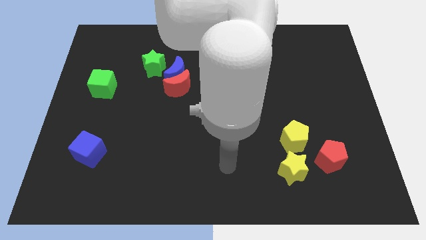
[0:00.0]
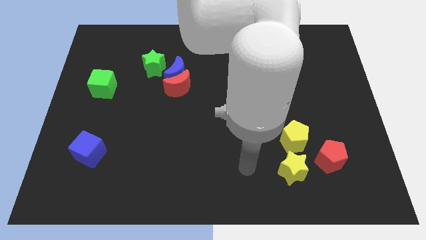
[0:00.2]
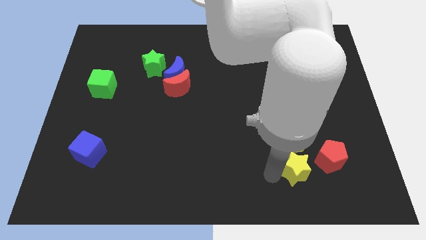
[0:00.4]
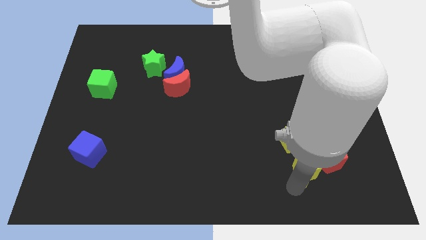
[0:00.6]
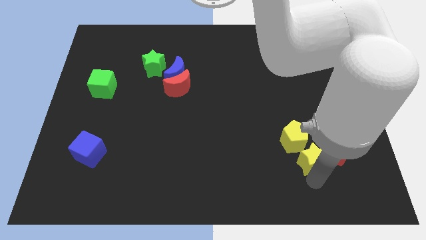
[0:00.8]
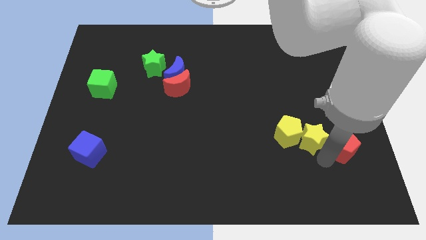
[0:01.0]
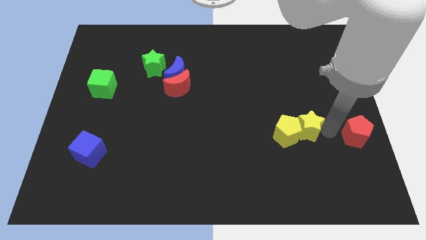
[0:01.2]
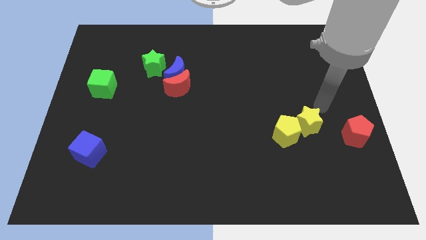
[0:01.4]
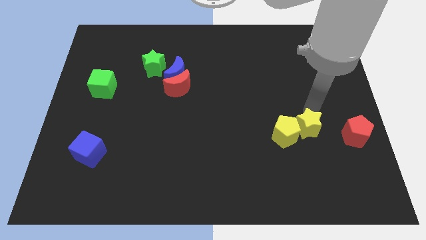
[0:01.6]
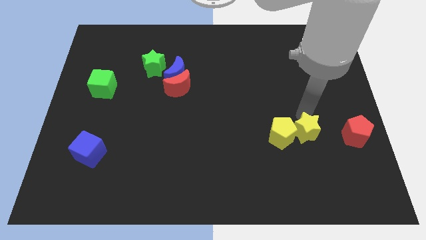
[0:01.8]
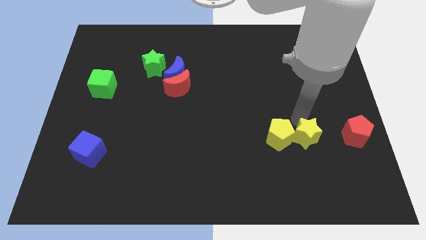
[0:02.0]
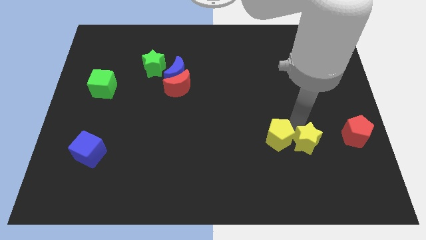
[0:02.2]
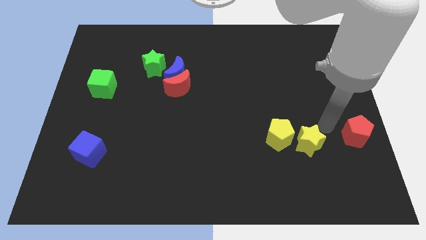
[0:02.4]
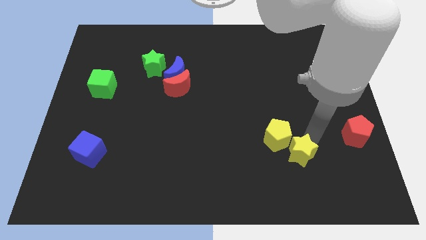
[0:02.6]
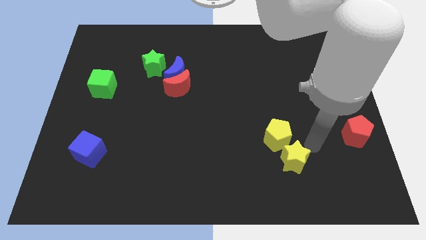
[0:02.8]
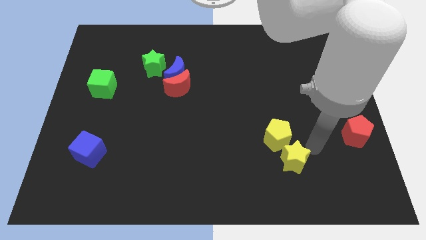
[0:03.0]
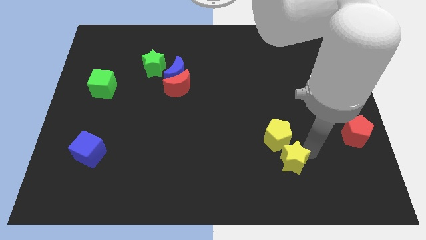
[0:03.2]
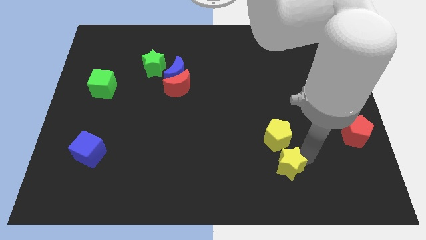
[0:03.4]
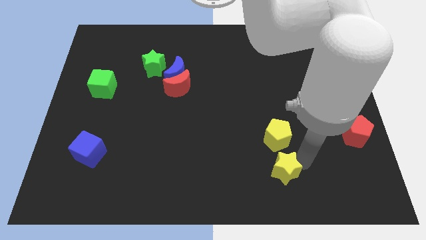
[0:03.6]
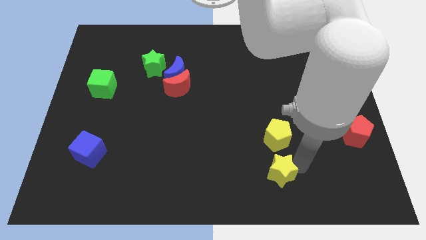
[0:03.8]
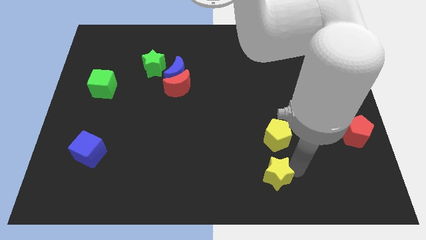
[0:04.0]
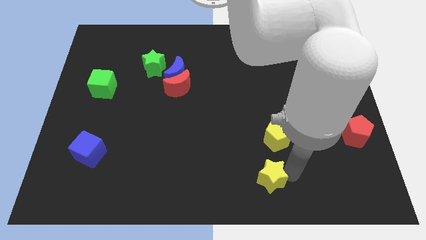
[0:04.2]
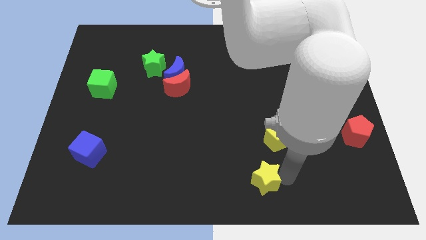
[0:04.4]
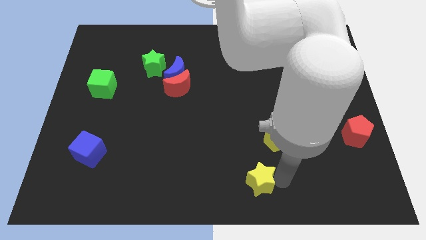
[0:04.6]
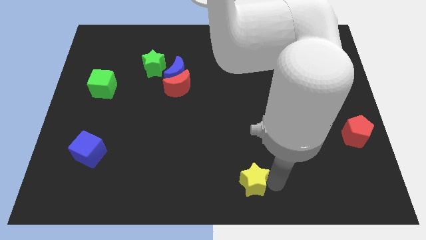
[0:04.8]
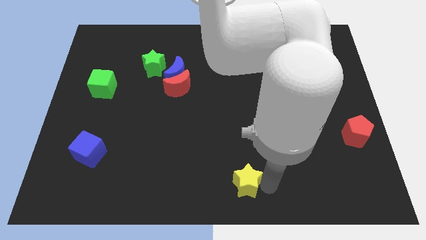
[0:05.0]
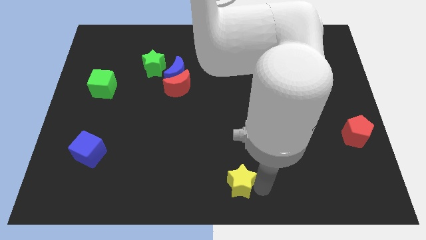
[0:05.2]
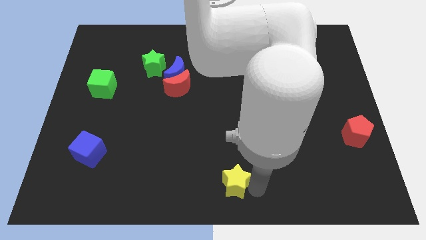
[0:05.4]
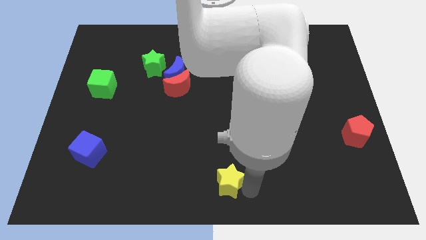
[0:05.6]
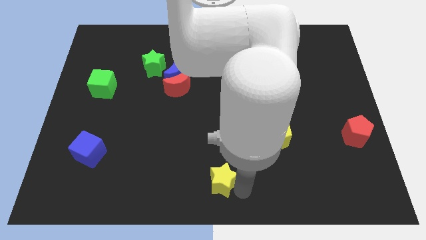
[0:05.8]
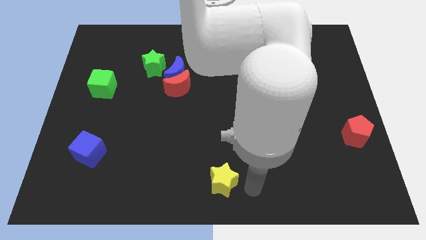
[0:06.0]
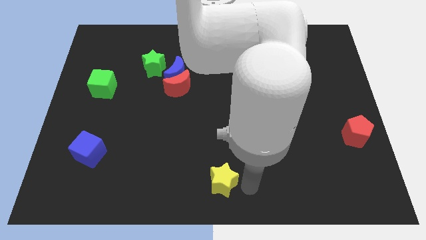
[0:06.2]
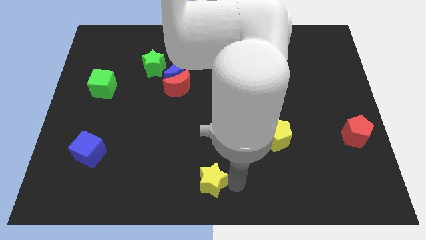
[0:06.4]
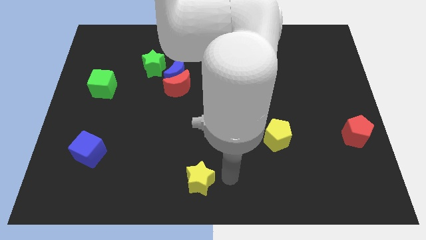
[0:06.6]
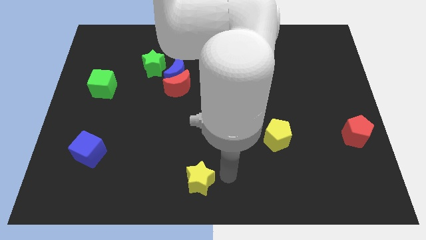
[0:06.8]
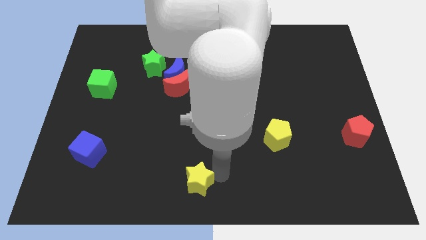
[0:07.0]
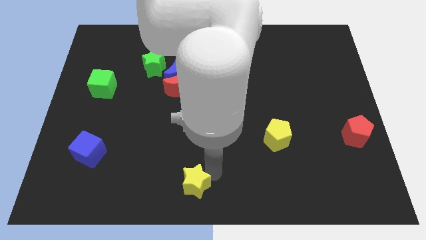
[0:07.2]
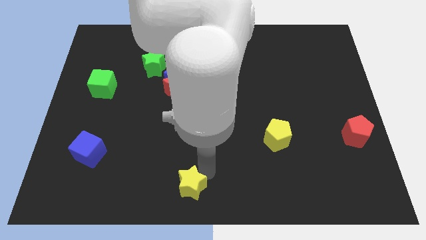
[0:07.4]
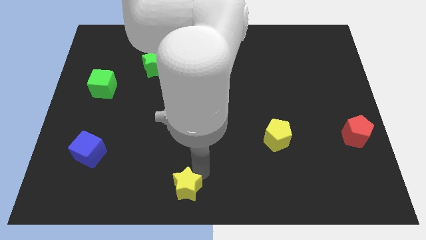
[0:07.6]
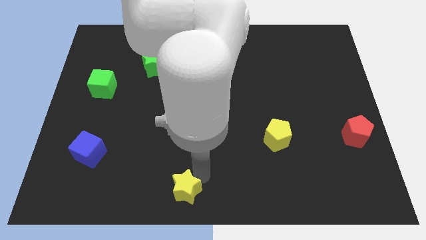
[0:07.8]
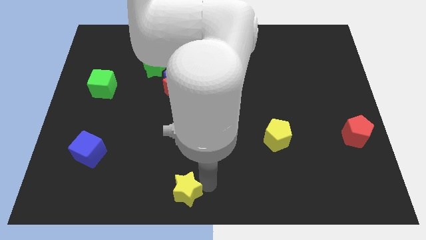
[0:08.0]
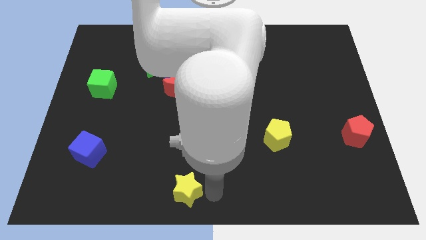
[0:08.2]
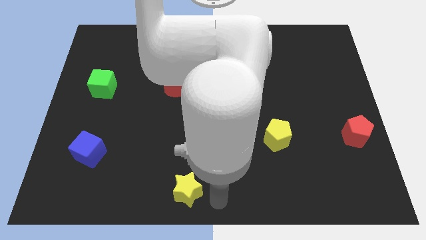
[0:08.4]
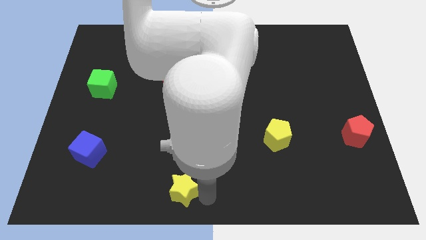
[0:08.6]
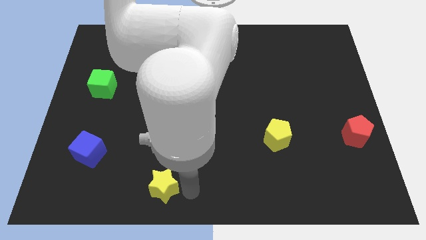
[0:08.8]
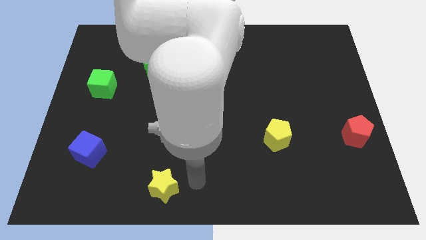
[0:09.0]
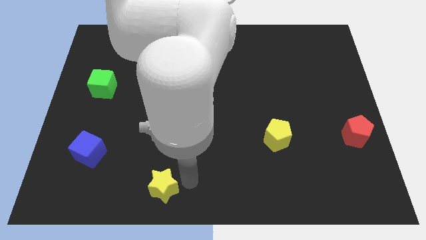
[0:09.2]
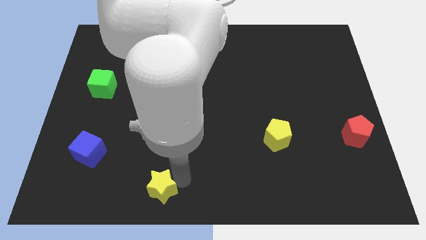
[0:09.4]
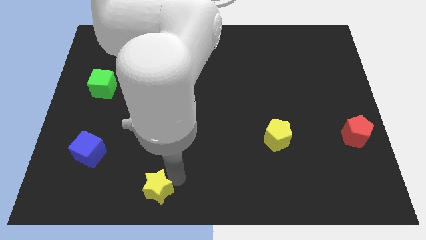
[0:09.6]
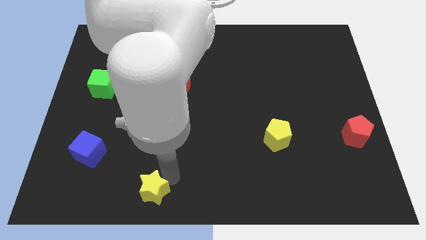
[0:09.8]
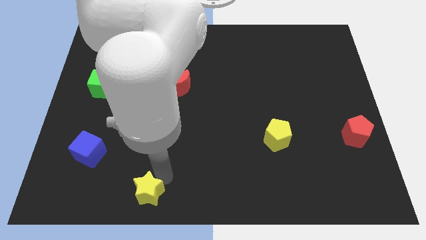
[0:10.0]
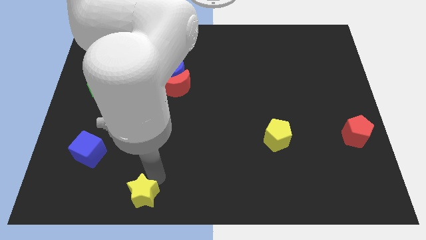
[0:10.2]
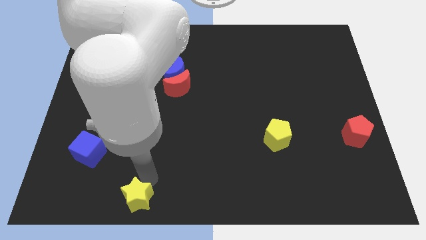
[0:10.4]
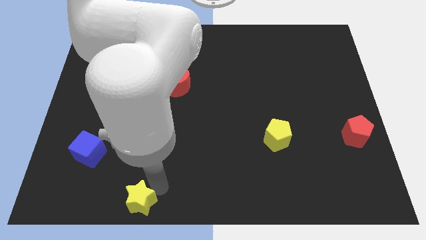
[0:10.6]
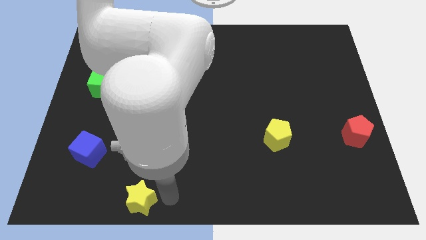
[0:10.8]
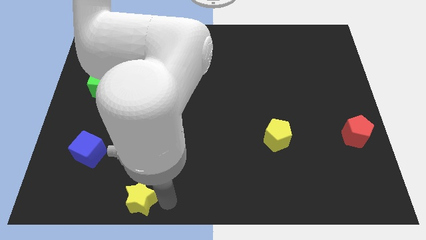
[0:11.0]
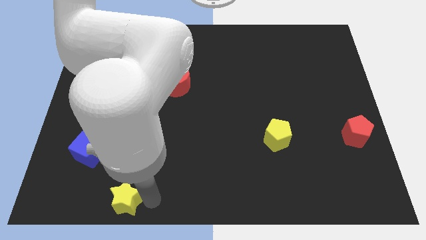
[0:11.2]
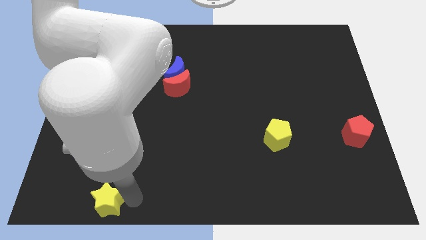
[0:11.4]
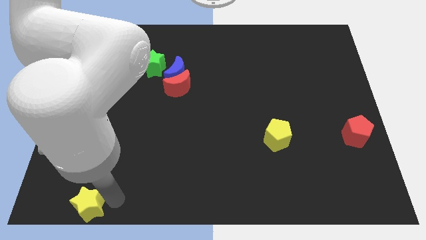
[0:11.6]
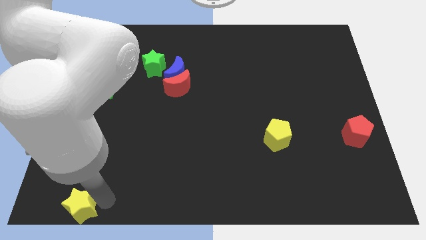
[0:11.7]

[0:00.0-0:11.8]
put the yellow star to the bottom left
